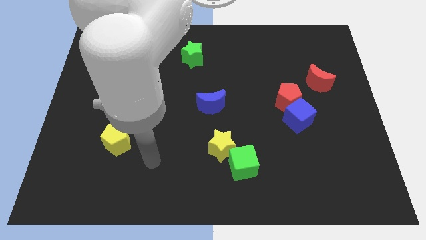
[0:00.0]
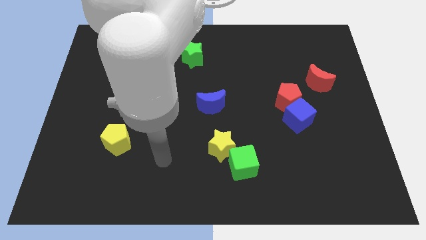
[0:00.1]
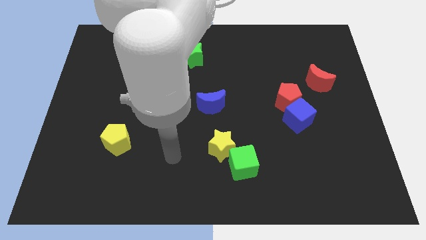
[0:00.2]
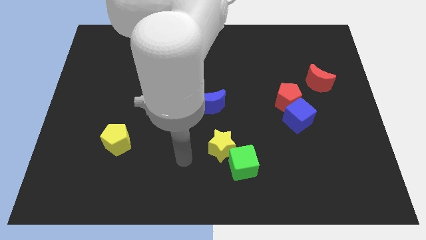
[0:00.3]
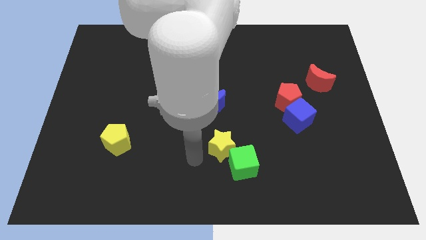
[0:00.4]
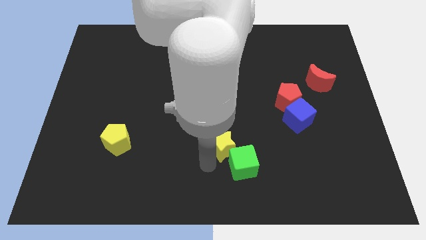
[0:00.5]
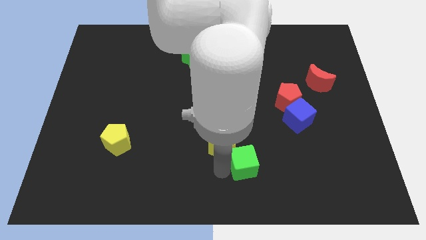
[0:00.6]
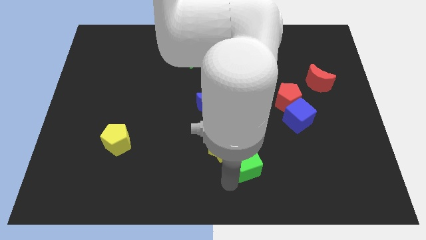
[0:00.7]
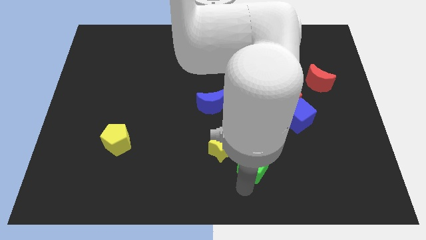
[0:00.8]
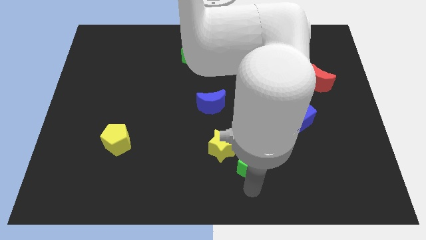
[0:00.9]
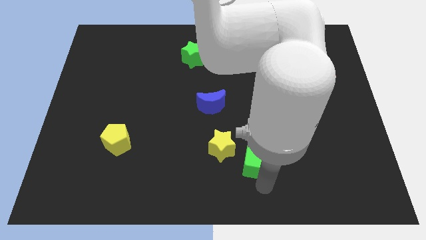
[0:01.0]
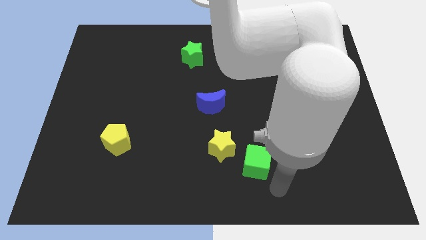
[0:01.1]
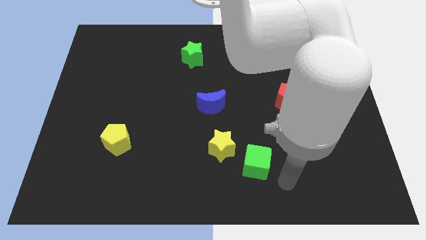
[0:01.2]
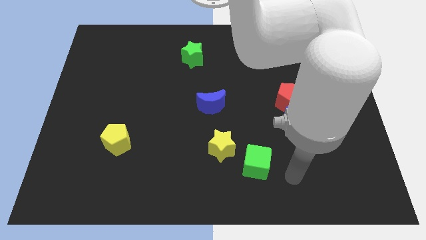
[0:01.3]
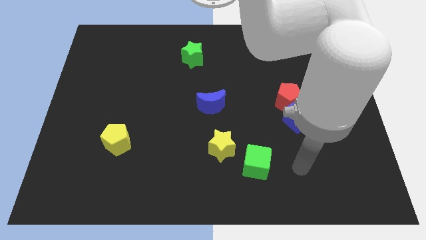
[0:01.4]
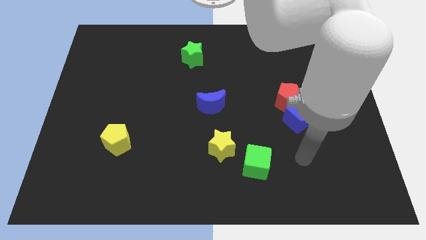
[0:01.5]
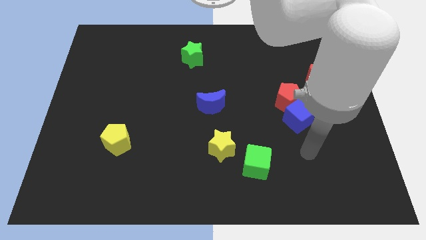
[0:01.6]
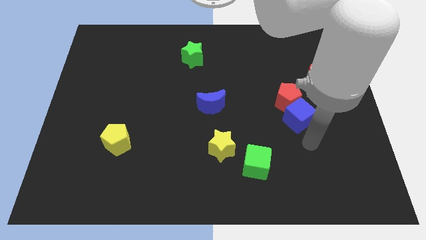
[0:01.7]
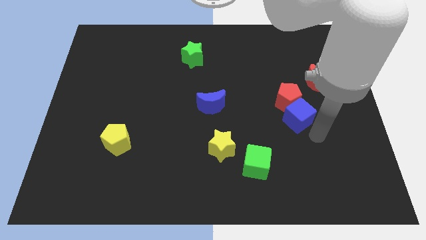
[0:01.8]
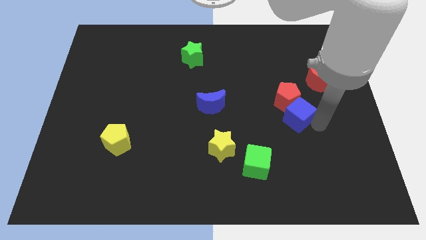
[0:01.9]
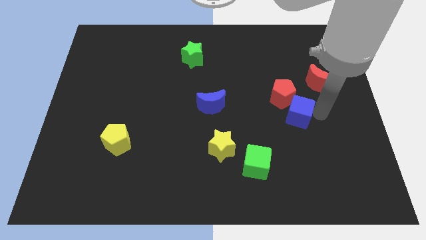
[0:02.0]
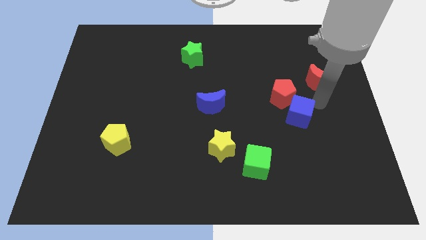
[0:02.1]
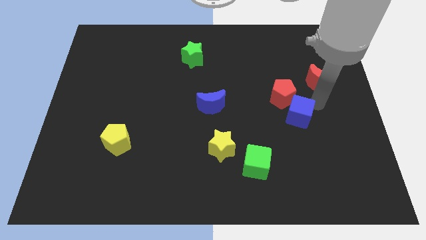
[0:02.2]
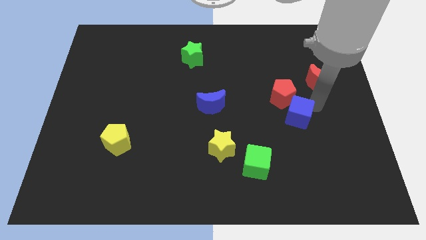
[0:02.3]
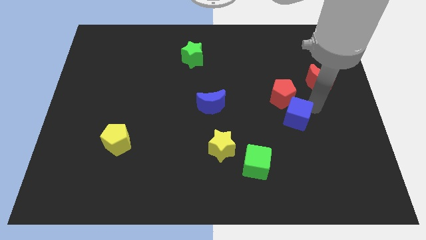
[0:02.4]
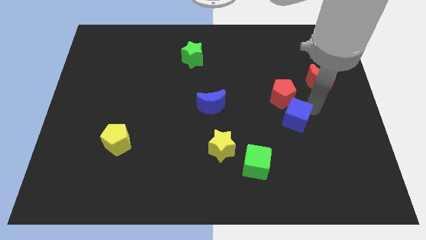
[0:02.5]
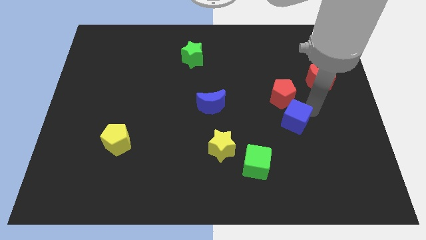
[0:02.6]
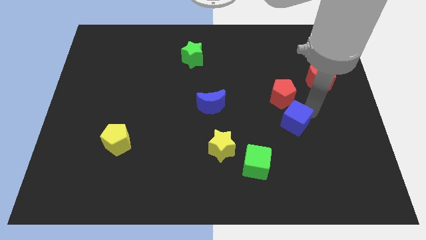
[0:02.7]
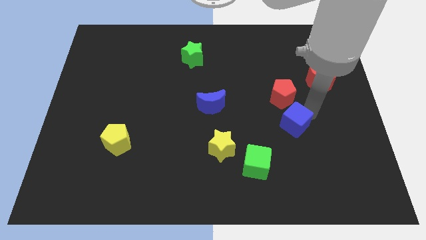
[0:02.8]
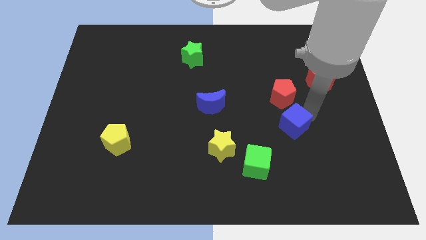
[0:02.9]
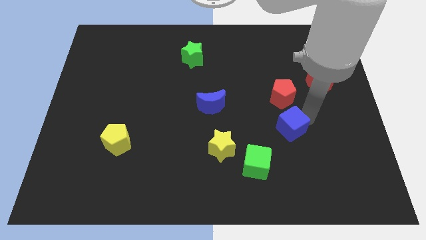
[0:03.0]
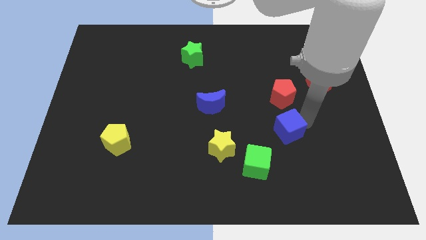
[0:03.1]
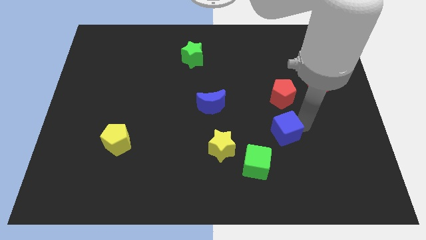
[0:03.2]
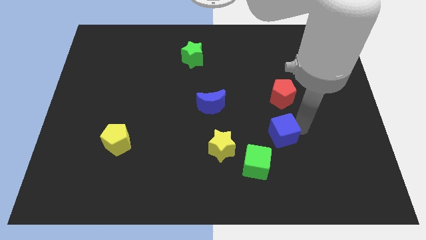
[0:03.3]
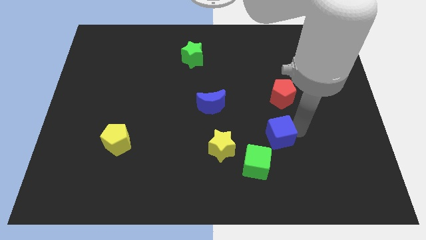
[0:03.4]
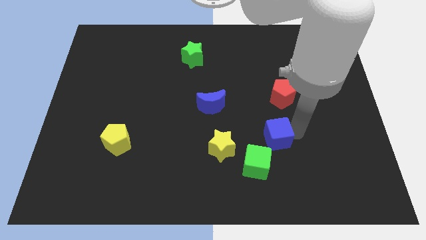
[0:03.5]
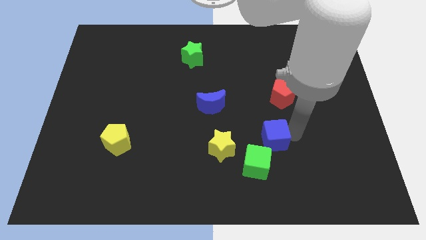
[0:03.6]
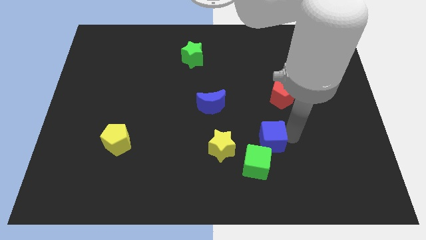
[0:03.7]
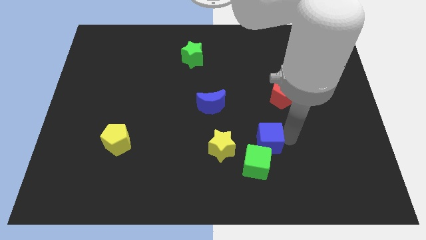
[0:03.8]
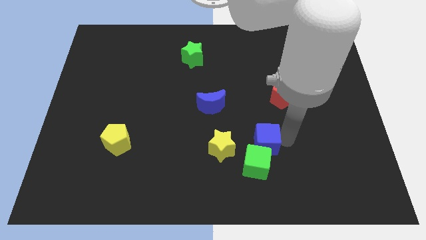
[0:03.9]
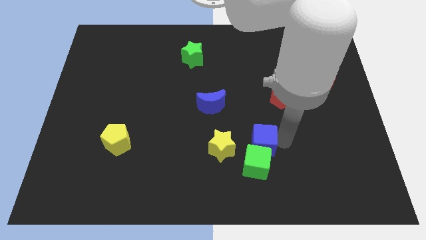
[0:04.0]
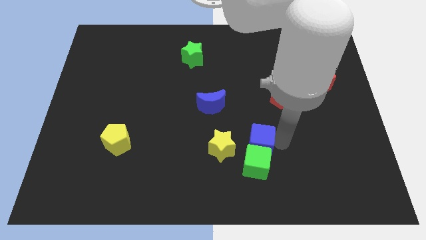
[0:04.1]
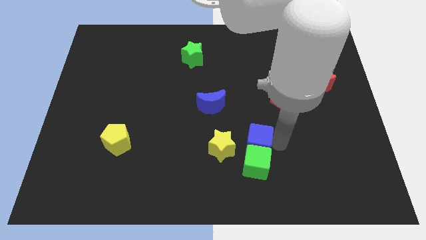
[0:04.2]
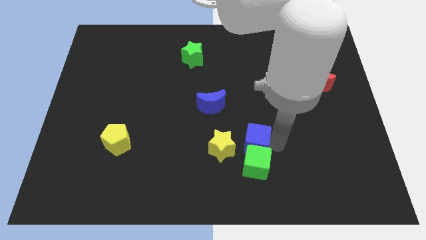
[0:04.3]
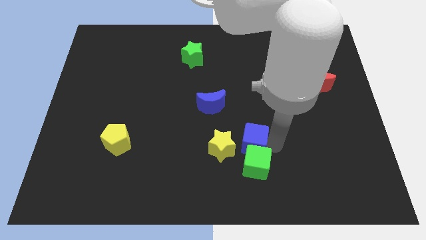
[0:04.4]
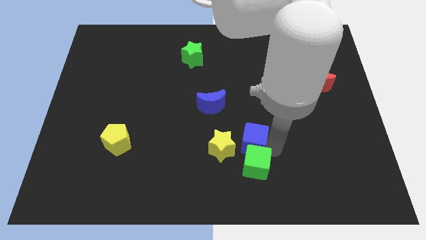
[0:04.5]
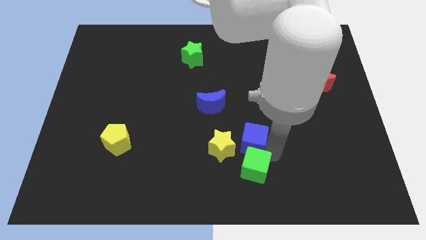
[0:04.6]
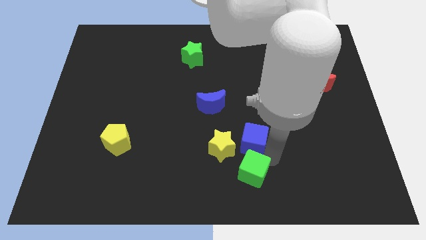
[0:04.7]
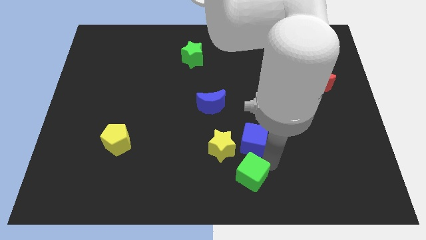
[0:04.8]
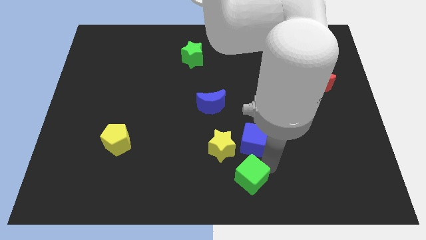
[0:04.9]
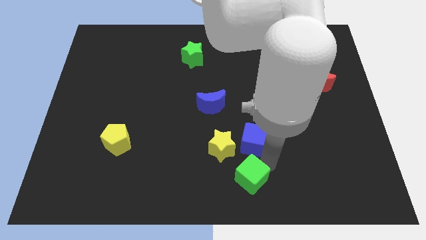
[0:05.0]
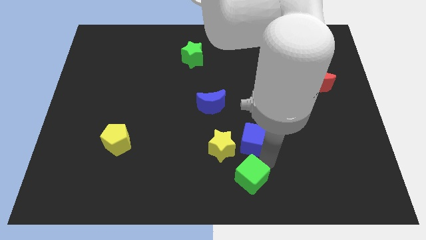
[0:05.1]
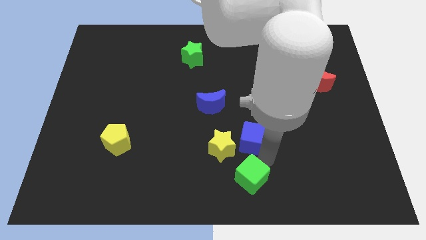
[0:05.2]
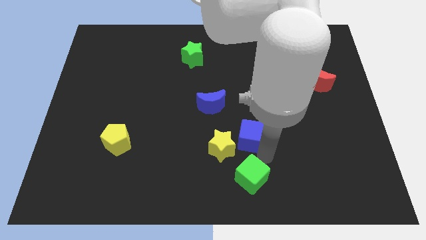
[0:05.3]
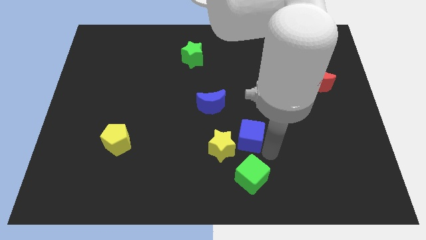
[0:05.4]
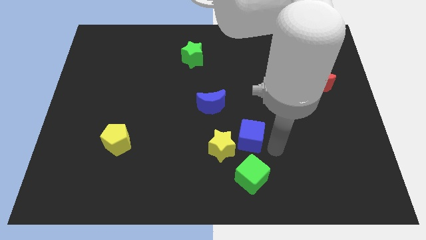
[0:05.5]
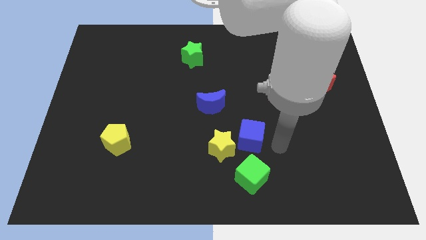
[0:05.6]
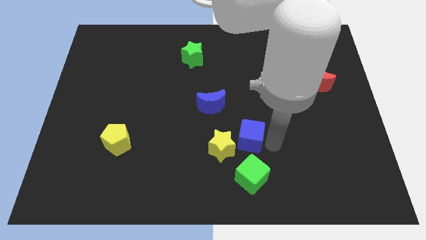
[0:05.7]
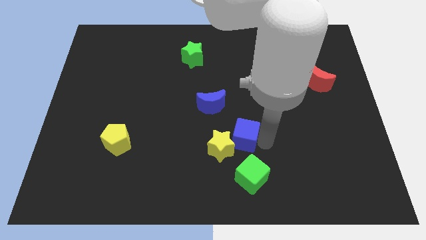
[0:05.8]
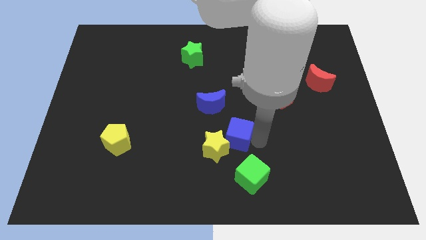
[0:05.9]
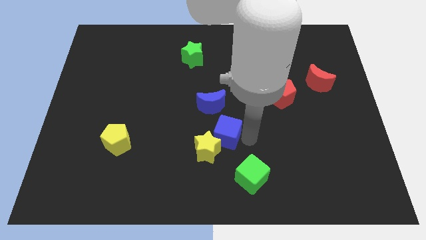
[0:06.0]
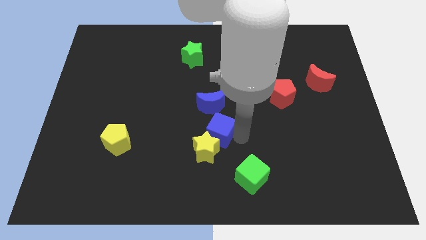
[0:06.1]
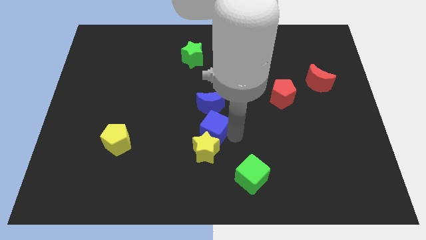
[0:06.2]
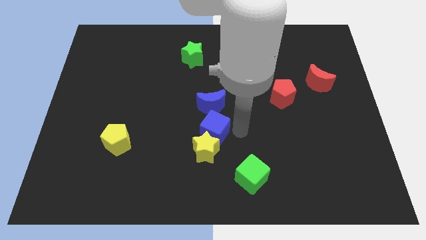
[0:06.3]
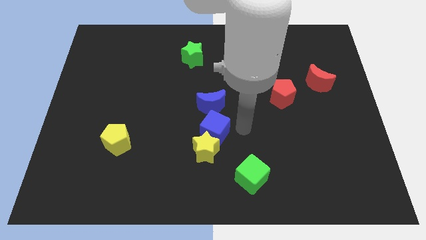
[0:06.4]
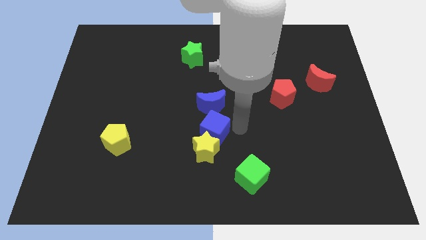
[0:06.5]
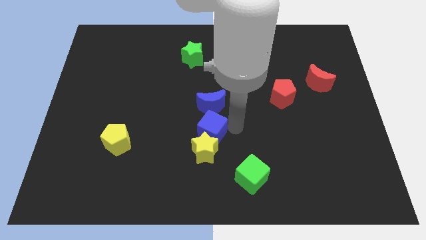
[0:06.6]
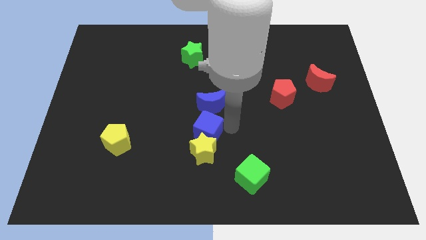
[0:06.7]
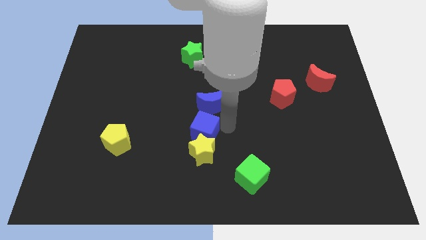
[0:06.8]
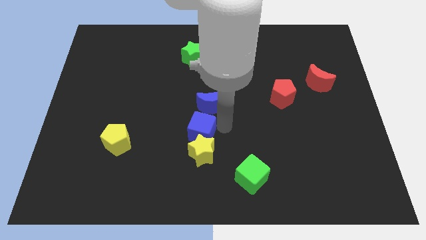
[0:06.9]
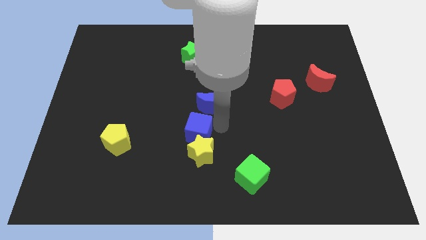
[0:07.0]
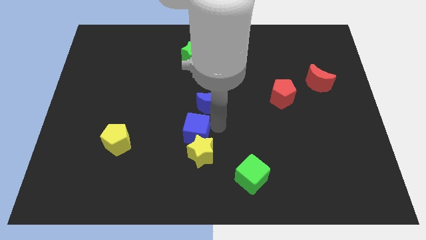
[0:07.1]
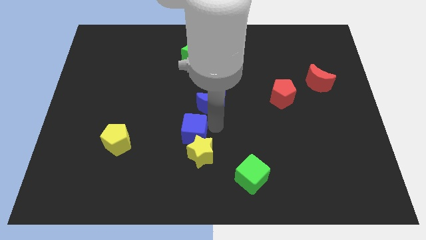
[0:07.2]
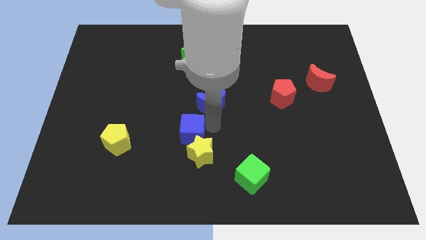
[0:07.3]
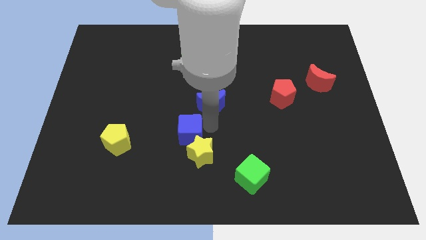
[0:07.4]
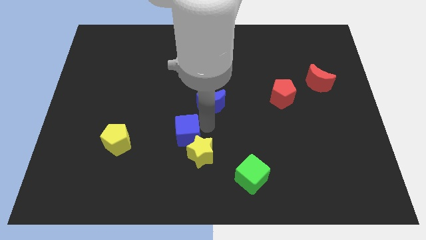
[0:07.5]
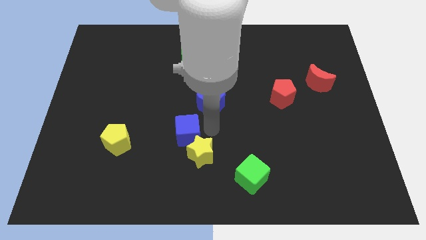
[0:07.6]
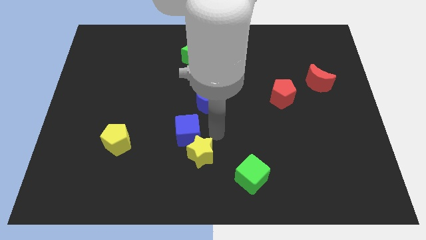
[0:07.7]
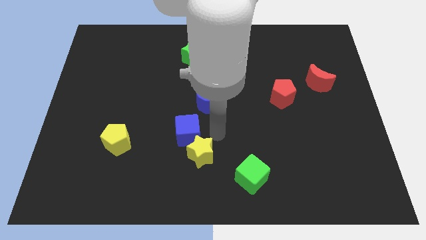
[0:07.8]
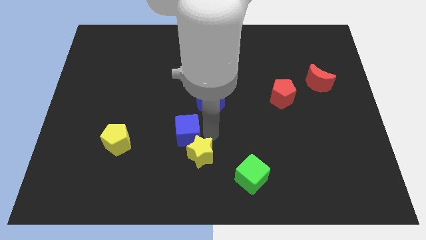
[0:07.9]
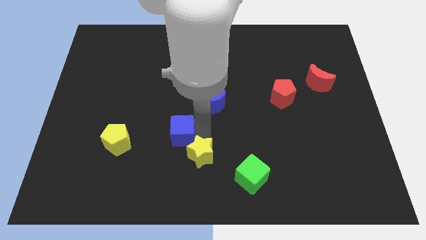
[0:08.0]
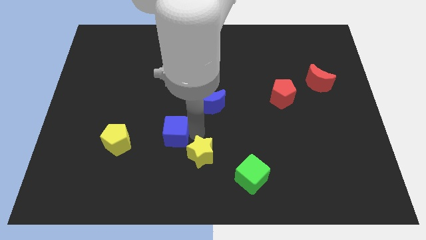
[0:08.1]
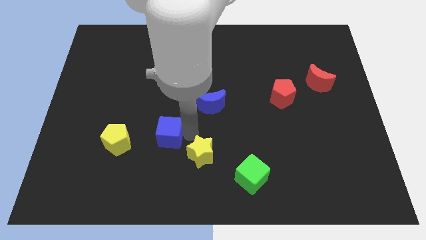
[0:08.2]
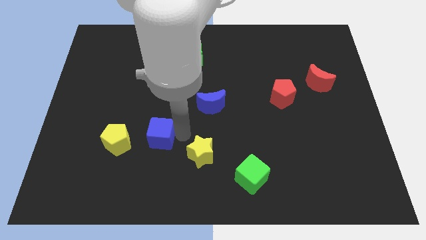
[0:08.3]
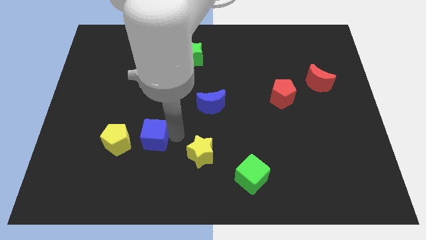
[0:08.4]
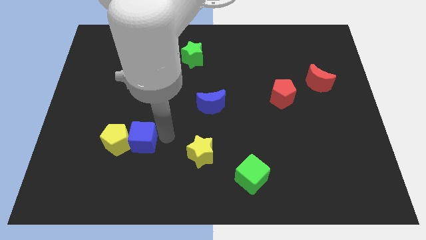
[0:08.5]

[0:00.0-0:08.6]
slide the blue cube close to the yellow pentagon
